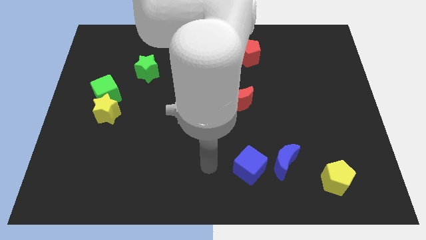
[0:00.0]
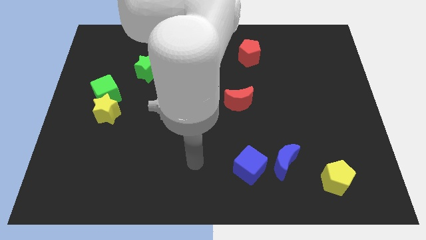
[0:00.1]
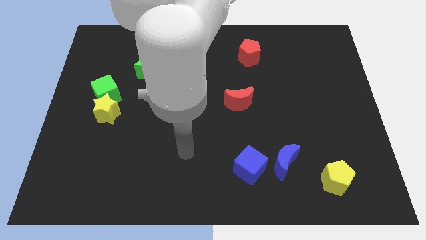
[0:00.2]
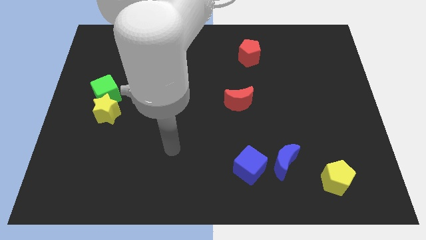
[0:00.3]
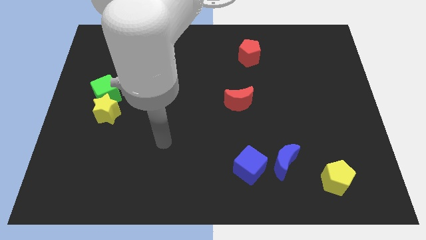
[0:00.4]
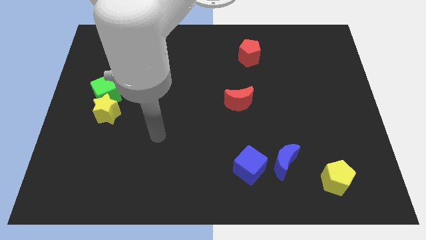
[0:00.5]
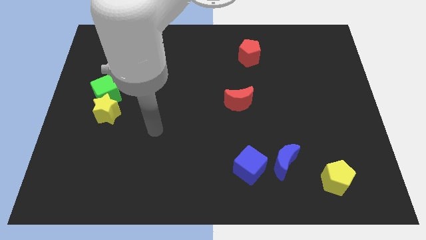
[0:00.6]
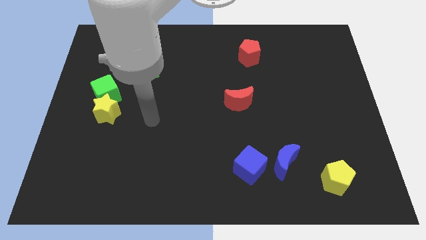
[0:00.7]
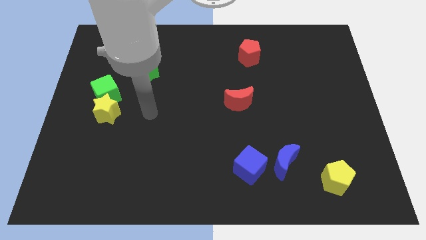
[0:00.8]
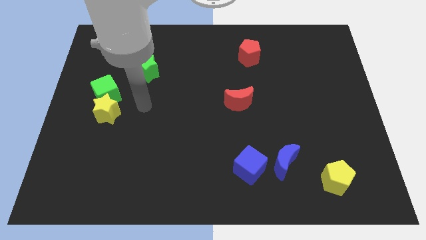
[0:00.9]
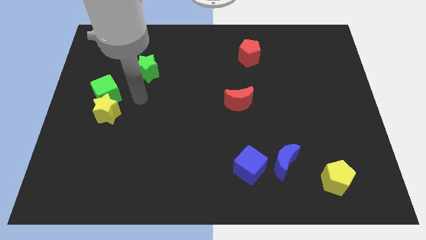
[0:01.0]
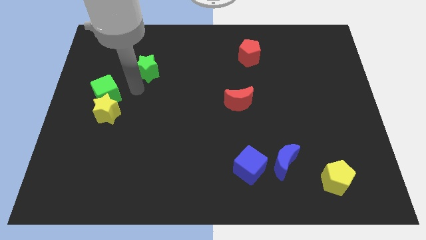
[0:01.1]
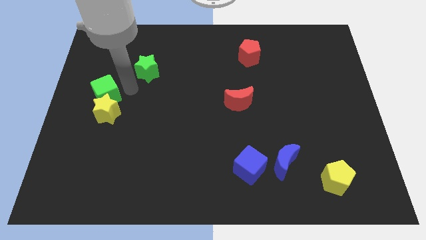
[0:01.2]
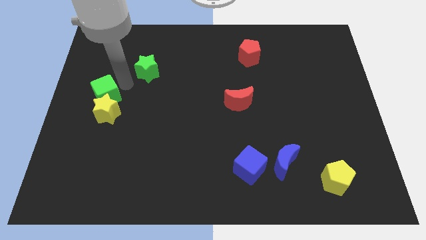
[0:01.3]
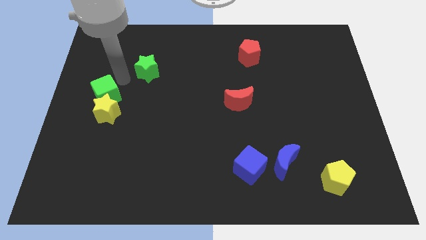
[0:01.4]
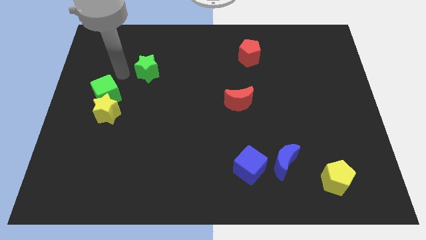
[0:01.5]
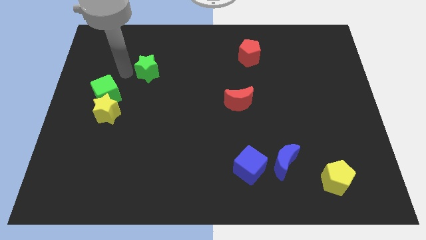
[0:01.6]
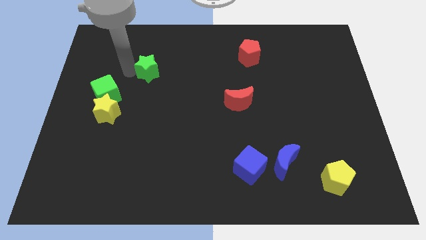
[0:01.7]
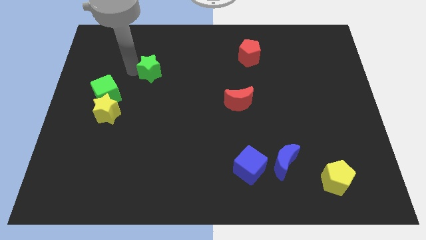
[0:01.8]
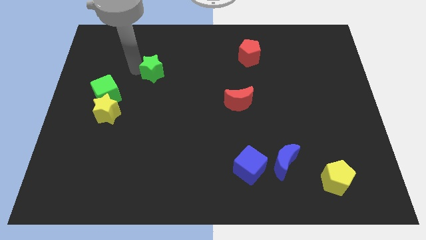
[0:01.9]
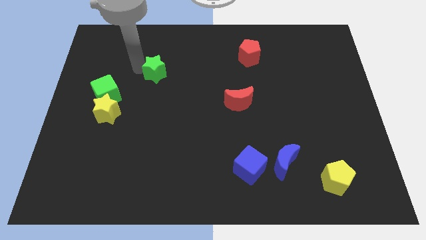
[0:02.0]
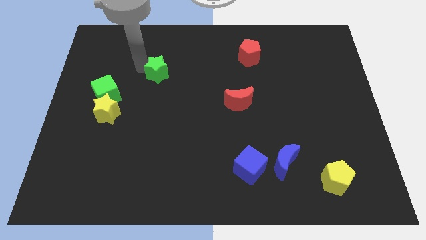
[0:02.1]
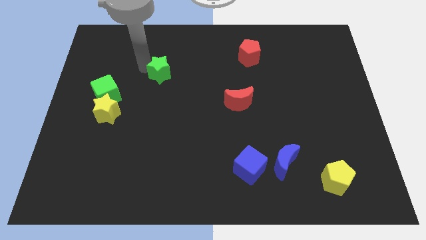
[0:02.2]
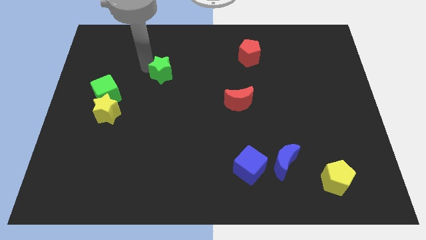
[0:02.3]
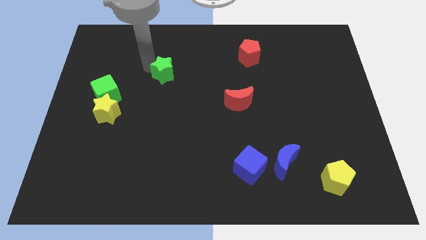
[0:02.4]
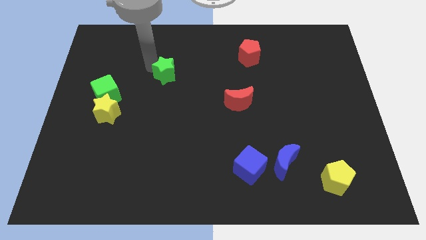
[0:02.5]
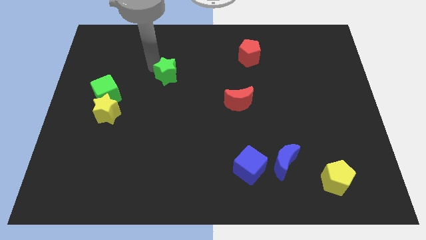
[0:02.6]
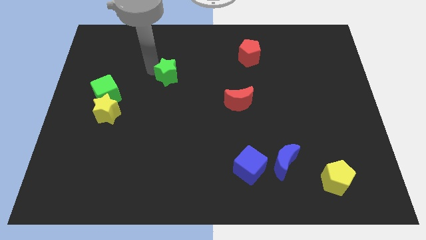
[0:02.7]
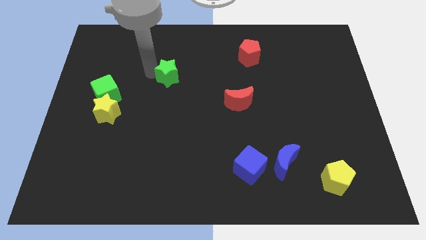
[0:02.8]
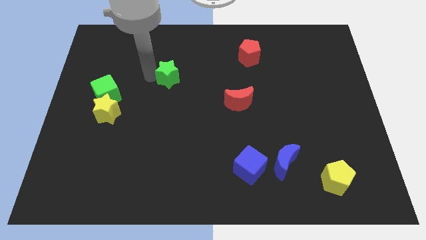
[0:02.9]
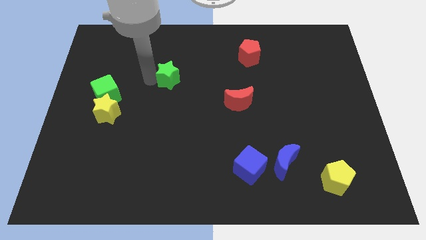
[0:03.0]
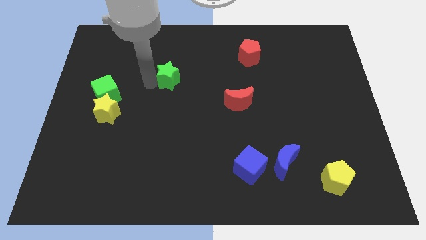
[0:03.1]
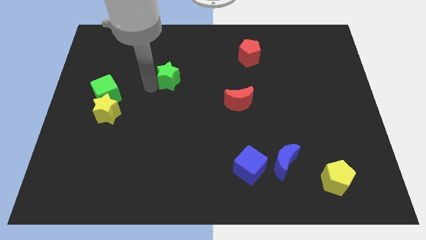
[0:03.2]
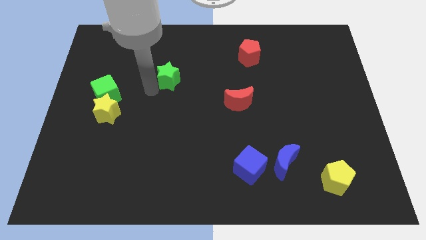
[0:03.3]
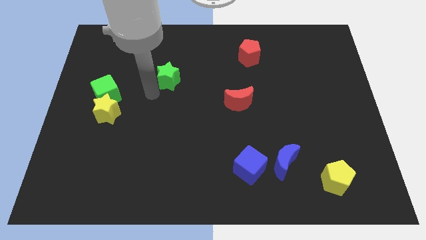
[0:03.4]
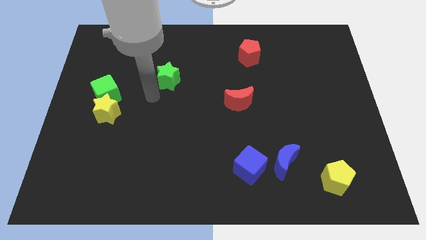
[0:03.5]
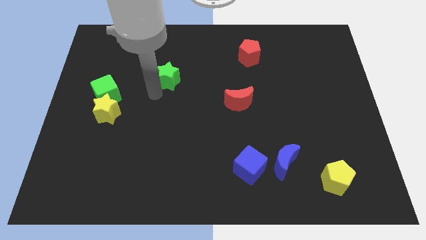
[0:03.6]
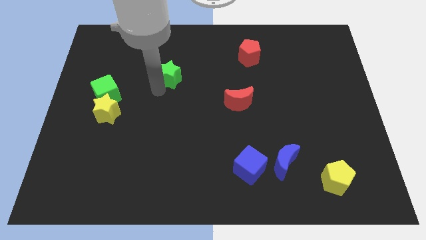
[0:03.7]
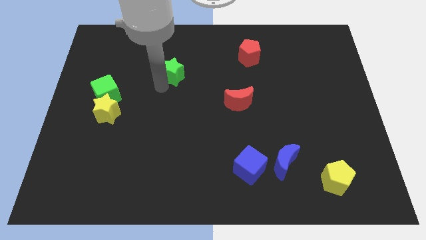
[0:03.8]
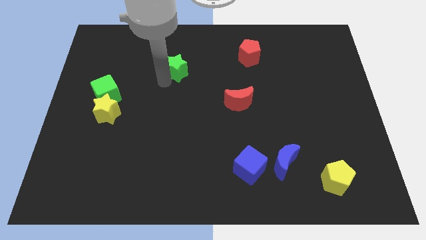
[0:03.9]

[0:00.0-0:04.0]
slightly slide the green star to the right

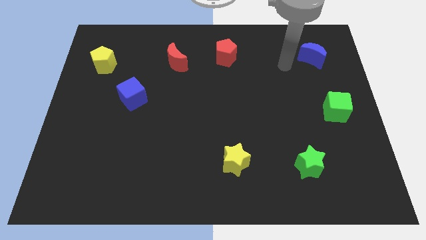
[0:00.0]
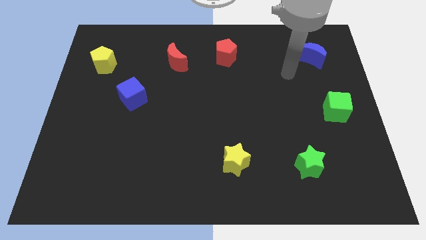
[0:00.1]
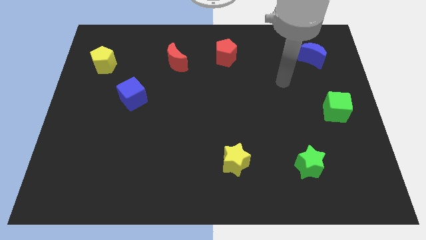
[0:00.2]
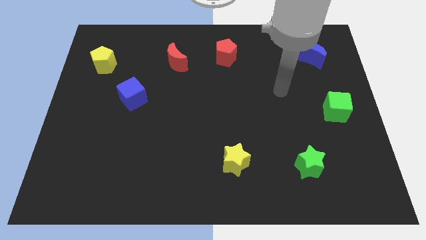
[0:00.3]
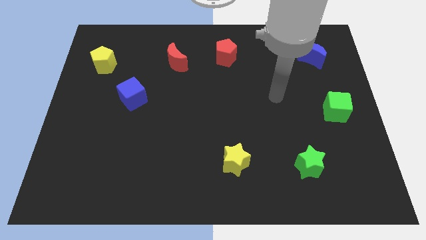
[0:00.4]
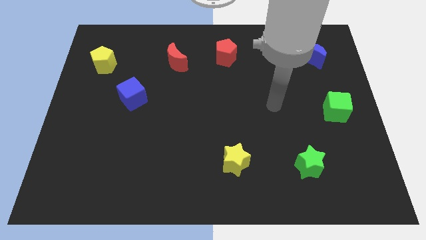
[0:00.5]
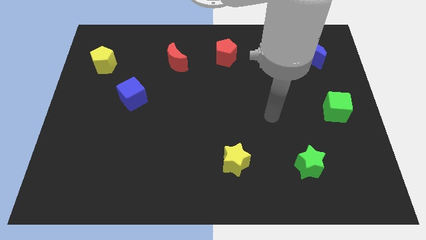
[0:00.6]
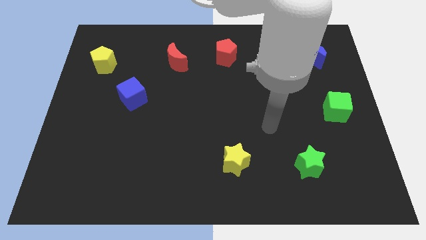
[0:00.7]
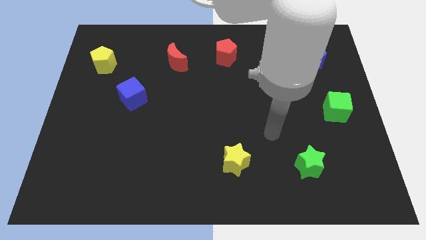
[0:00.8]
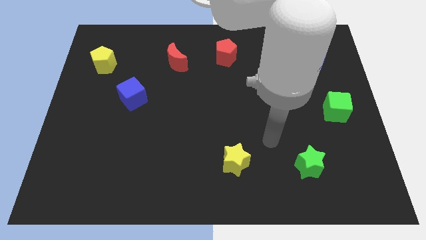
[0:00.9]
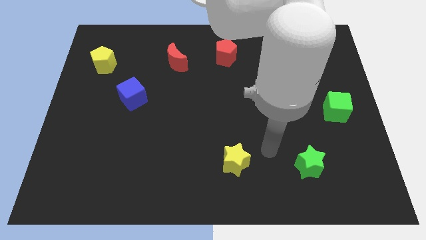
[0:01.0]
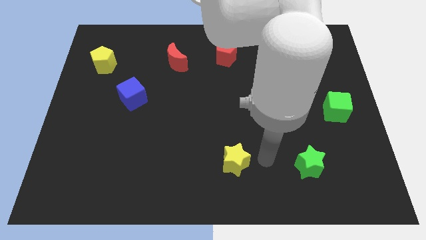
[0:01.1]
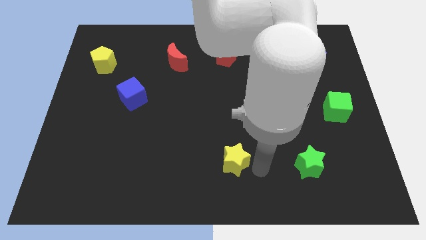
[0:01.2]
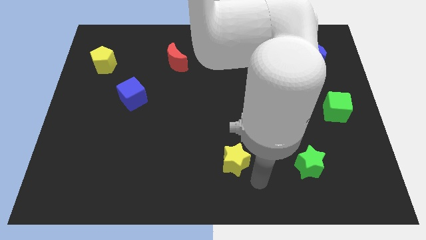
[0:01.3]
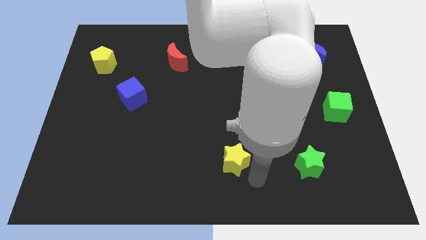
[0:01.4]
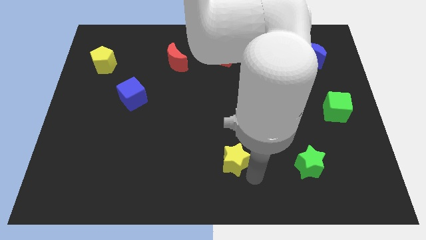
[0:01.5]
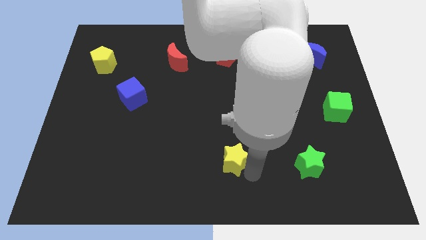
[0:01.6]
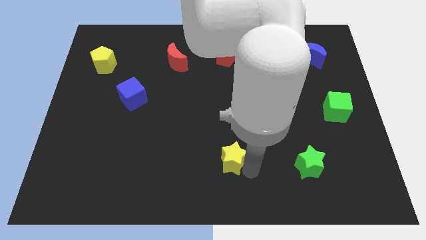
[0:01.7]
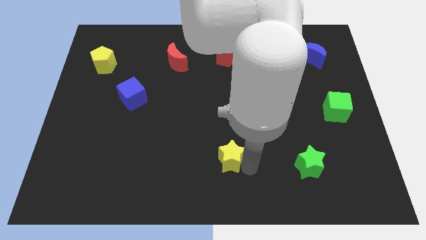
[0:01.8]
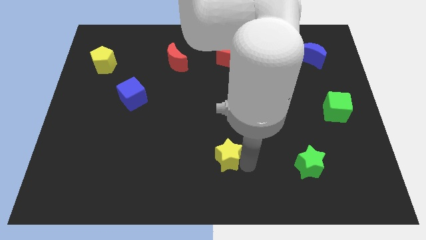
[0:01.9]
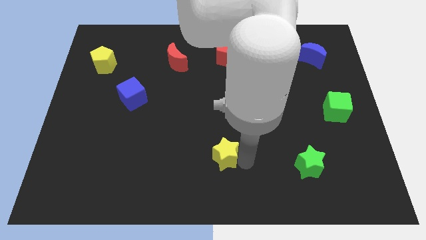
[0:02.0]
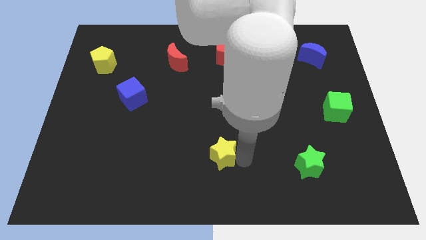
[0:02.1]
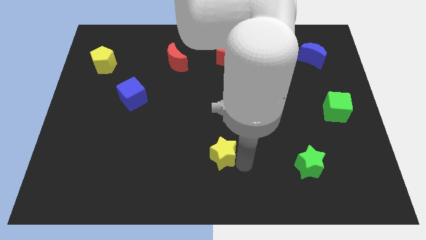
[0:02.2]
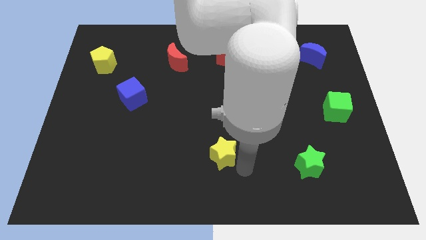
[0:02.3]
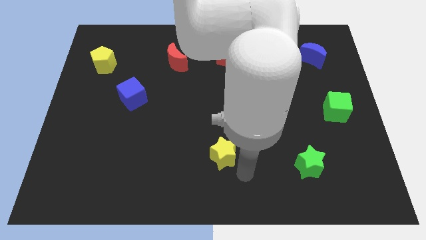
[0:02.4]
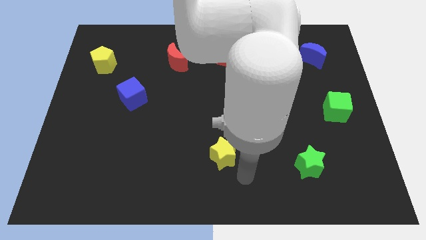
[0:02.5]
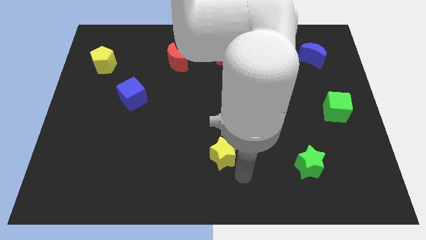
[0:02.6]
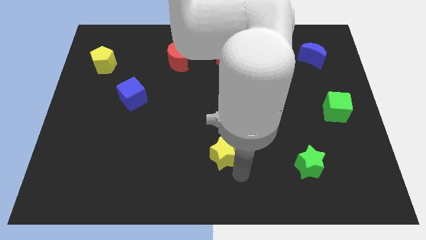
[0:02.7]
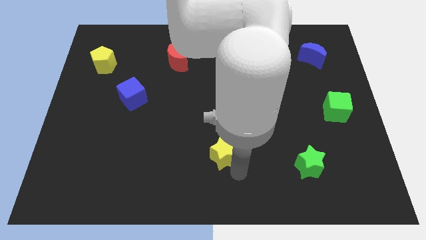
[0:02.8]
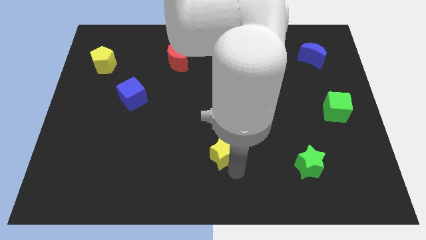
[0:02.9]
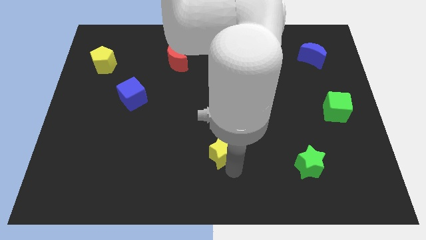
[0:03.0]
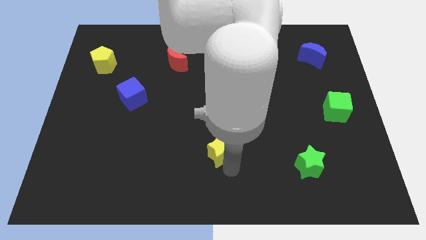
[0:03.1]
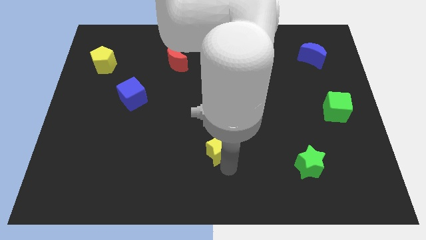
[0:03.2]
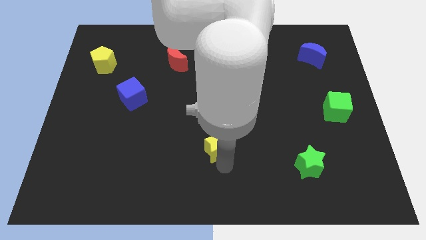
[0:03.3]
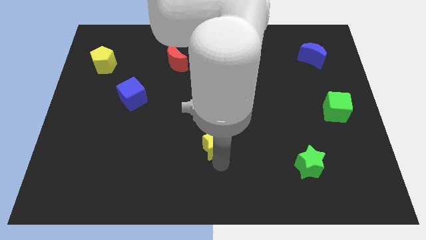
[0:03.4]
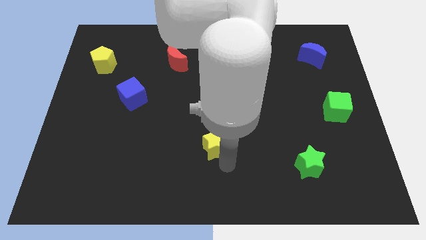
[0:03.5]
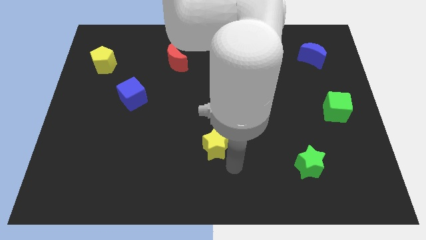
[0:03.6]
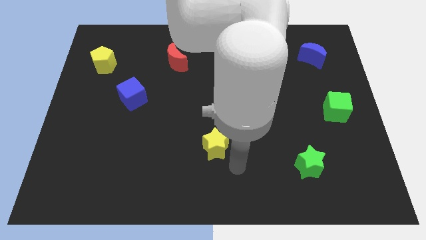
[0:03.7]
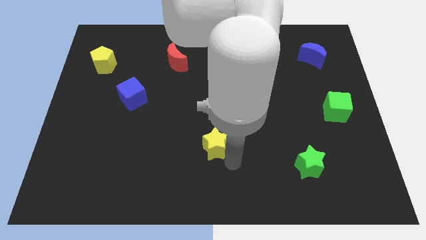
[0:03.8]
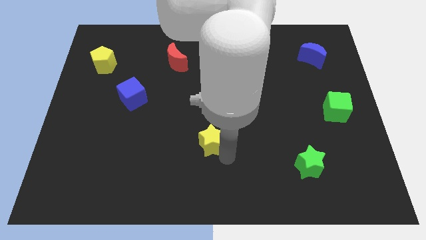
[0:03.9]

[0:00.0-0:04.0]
push the yellow star upwards and left diagonally a bit
